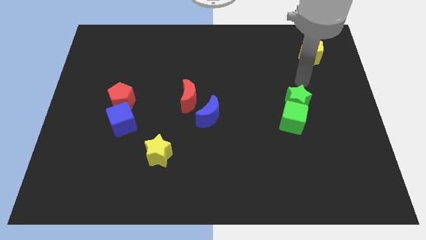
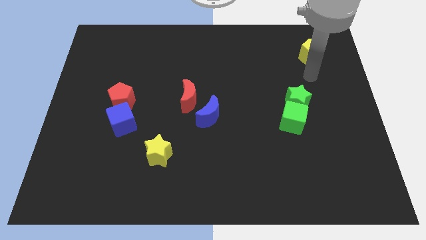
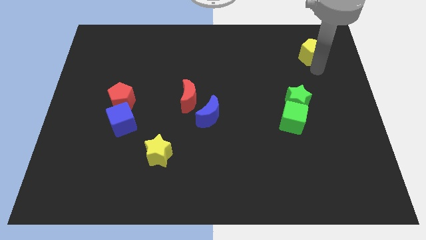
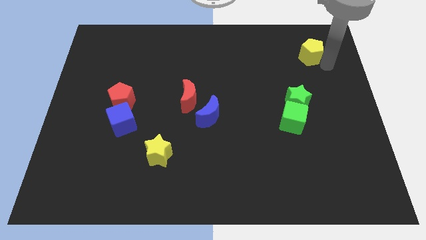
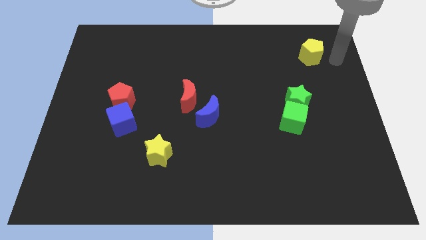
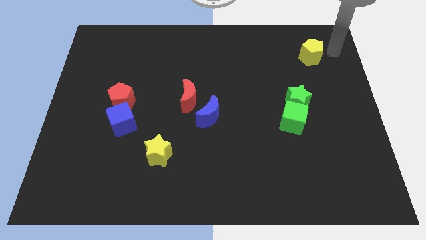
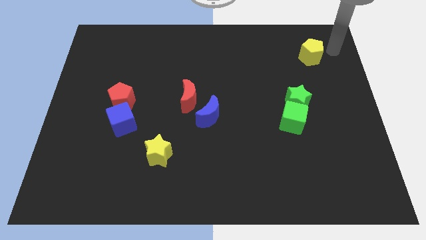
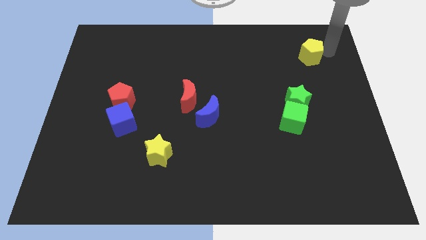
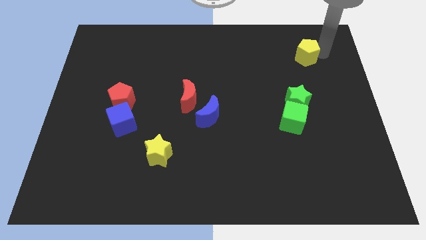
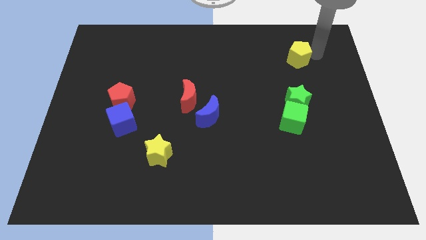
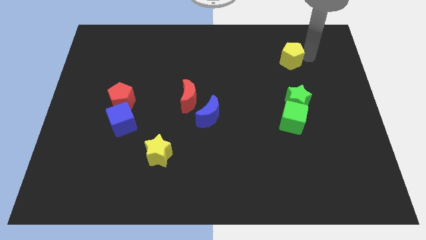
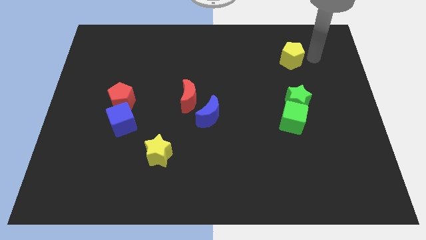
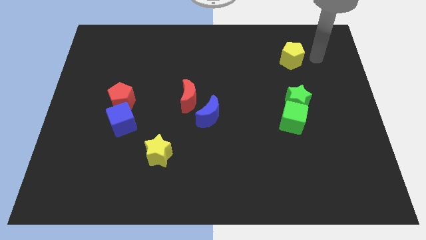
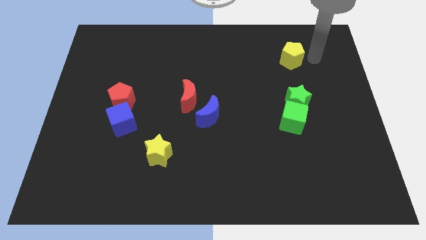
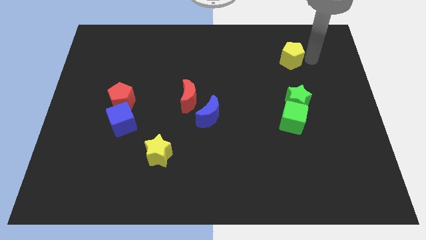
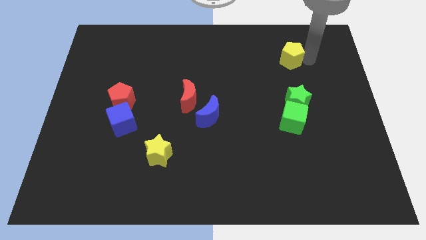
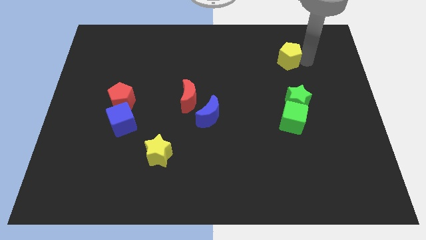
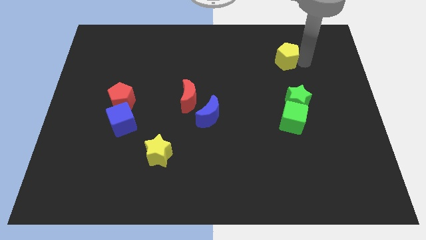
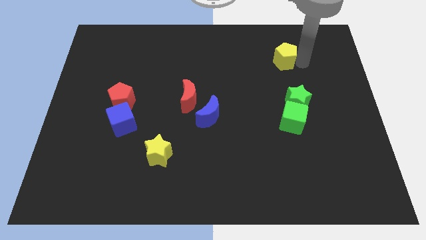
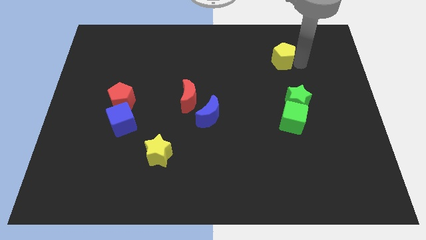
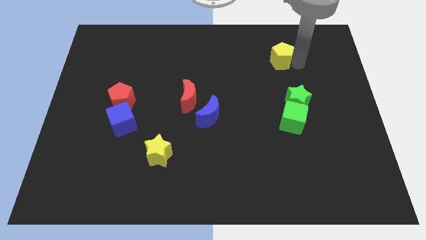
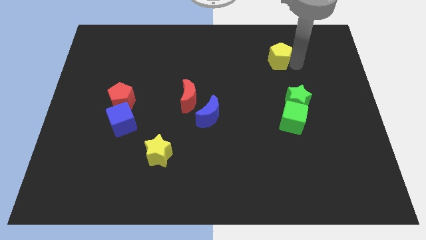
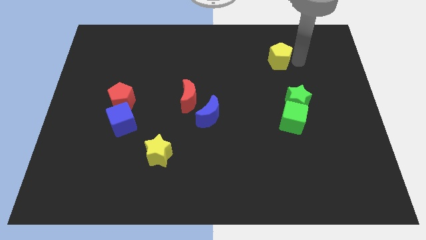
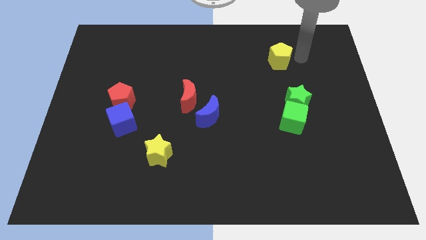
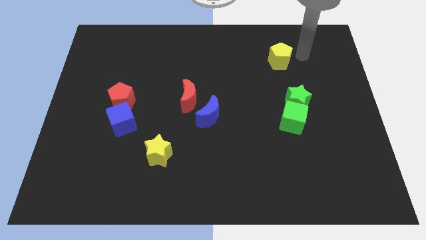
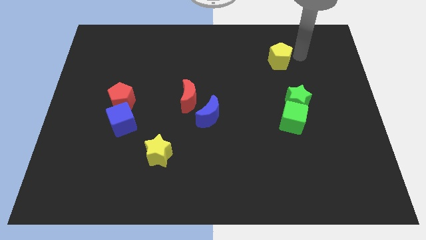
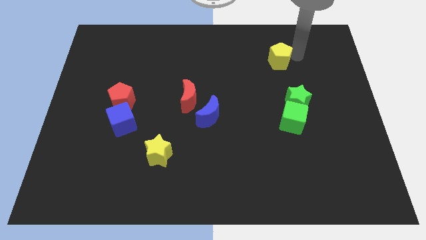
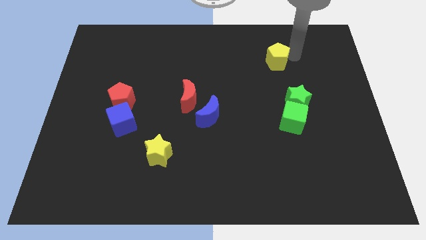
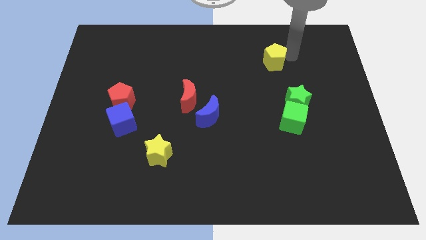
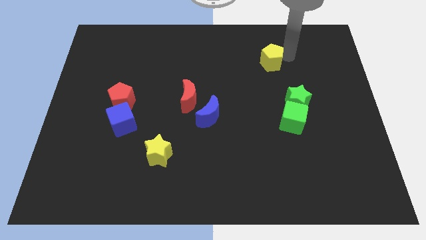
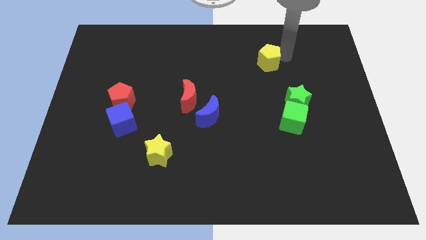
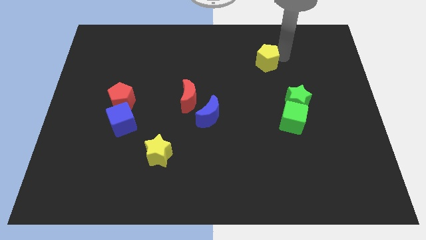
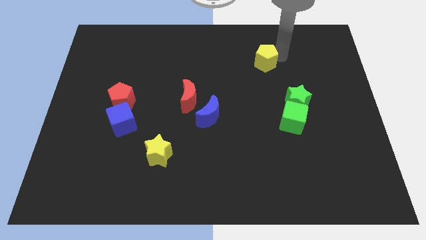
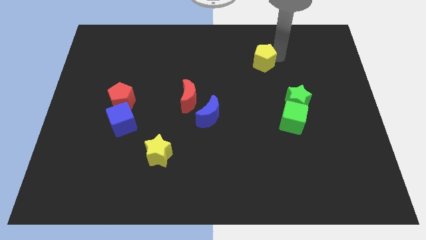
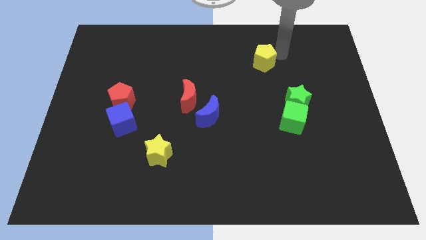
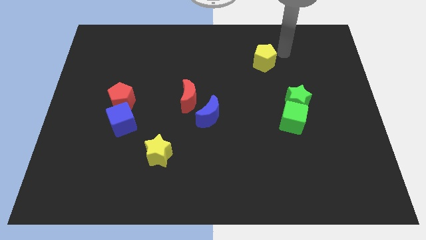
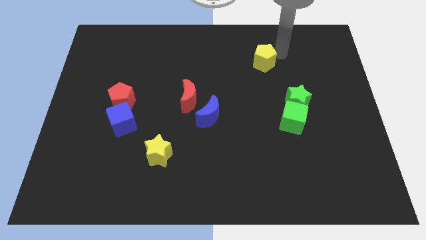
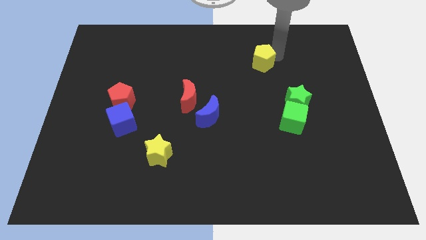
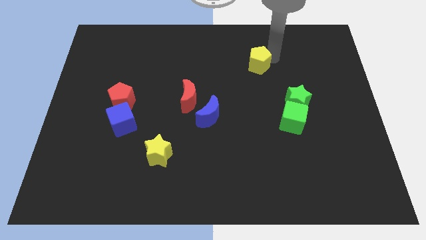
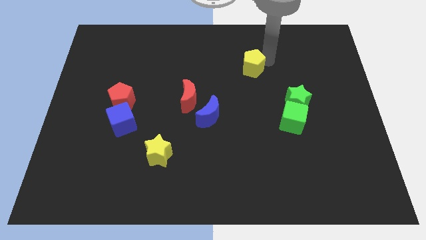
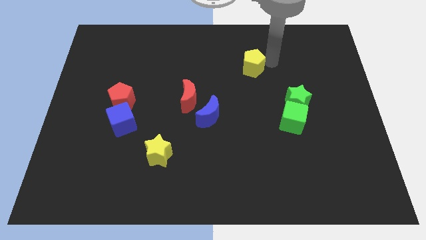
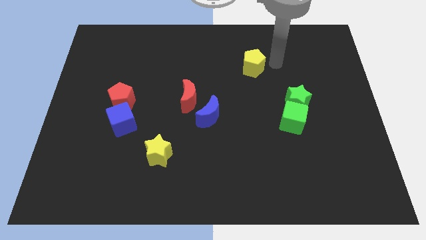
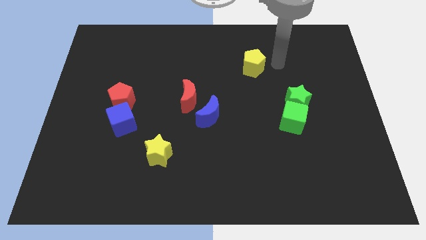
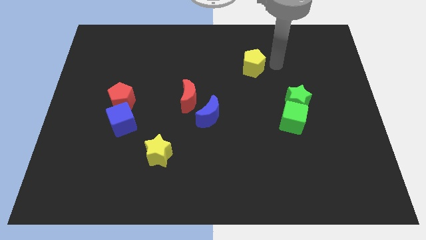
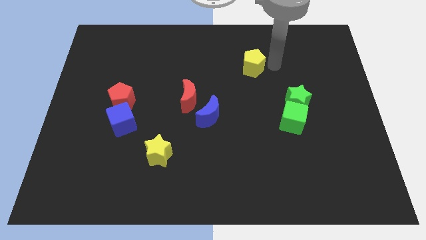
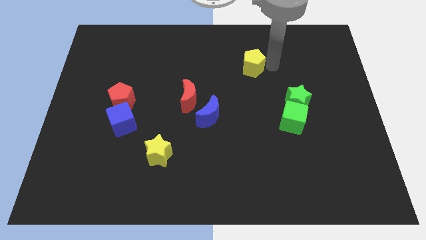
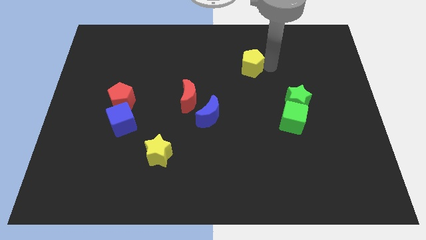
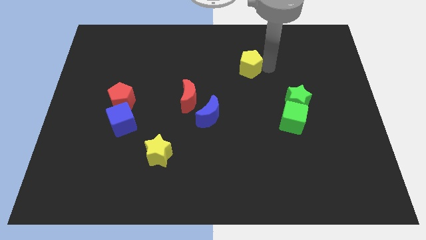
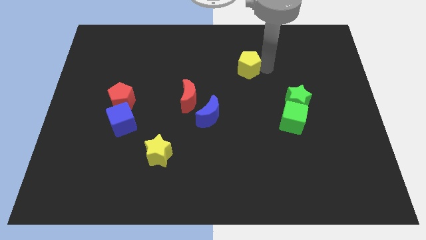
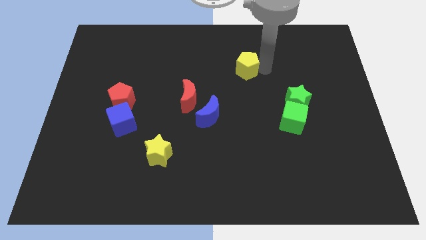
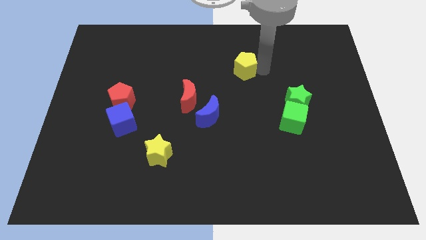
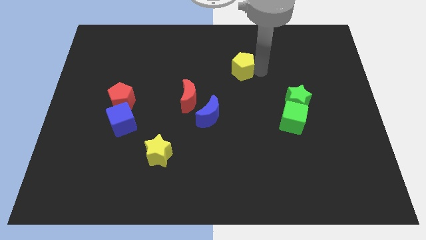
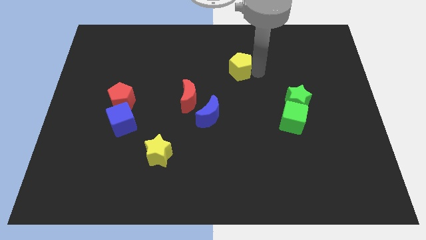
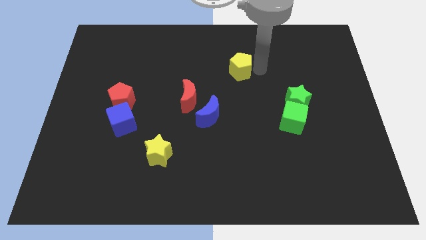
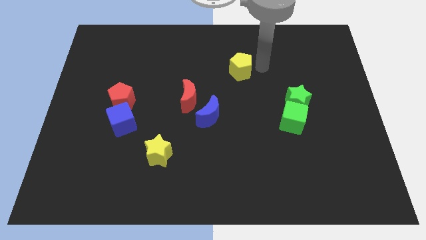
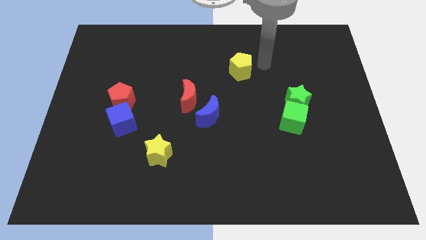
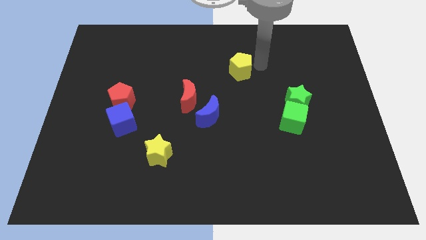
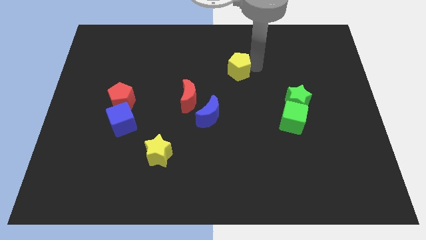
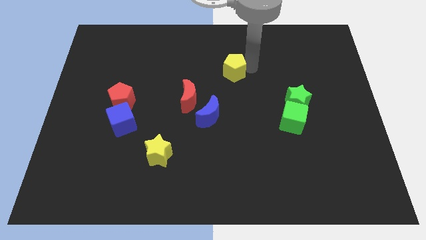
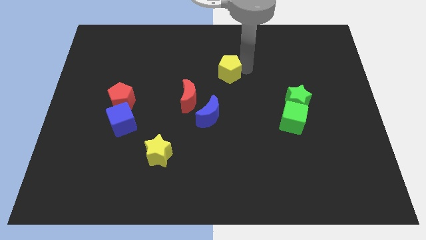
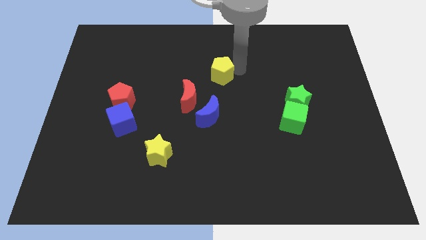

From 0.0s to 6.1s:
push the yellow pentagon diagonally up and to the right of the red moon

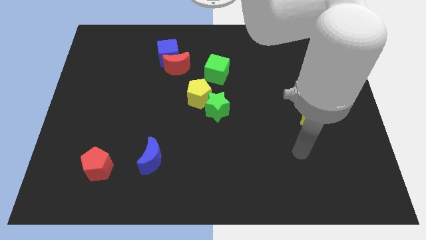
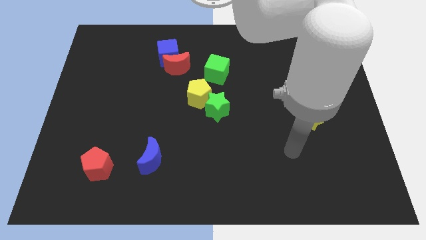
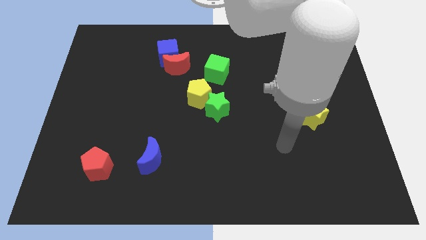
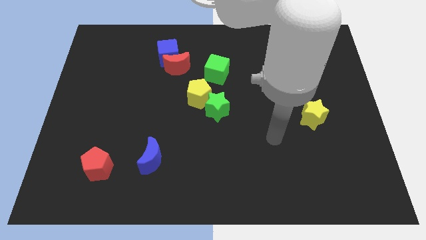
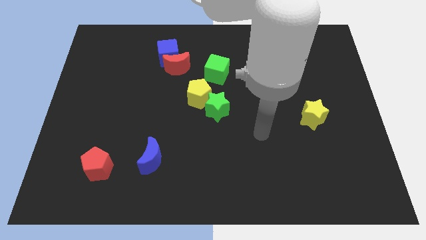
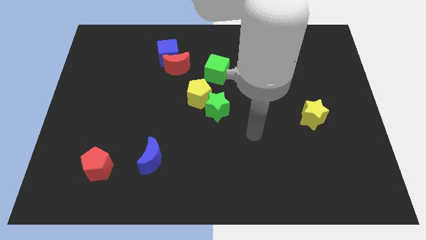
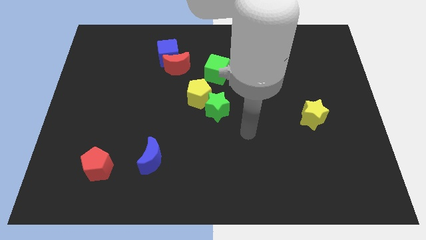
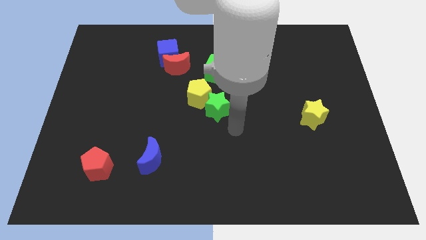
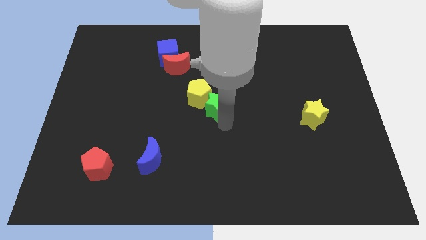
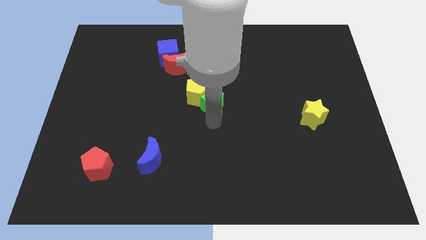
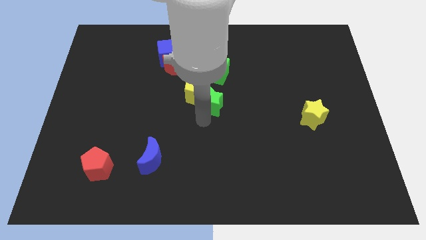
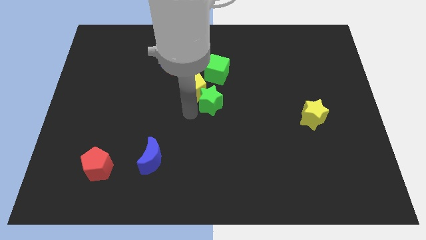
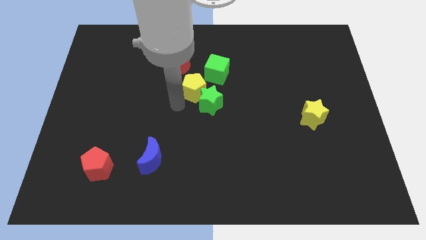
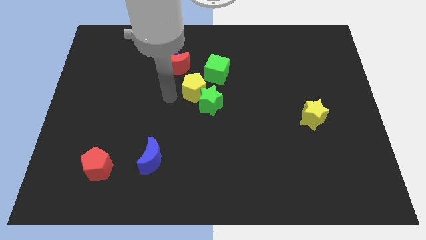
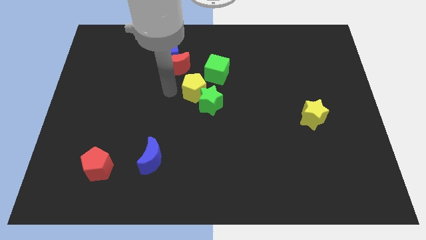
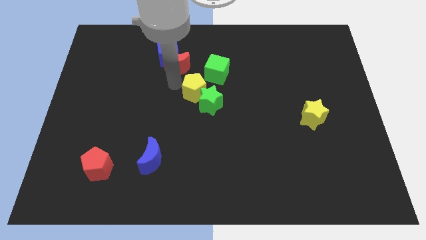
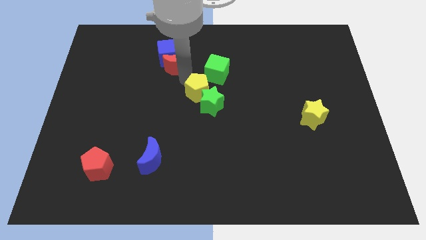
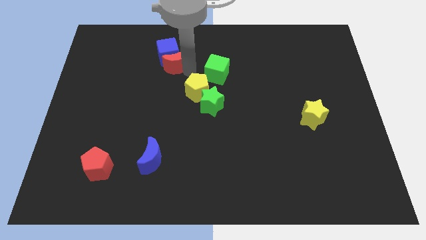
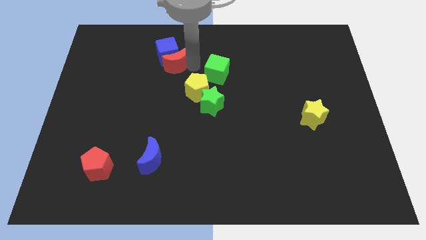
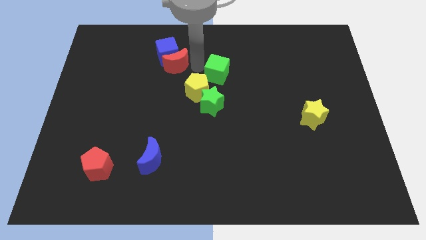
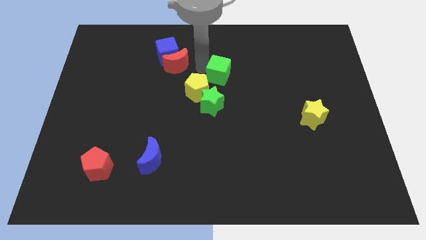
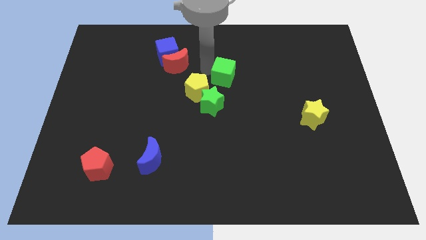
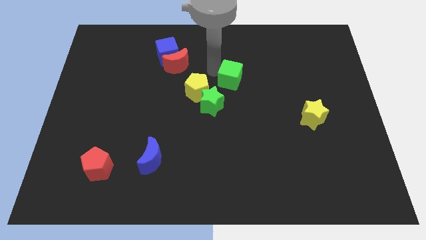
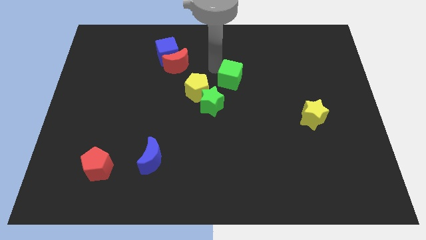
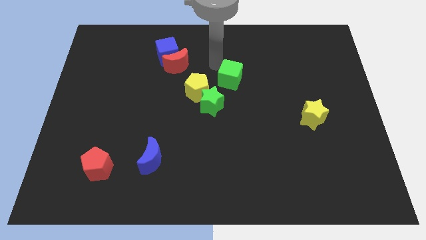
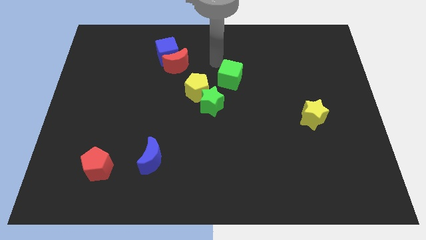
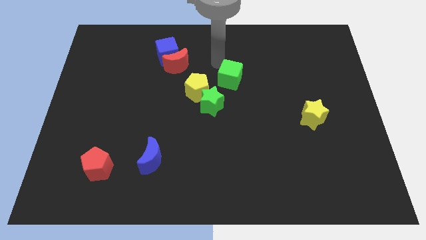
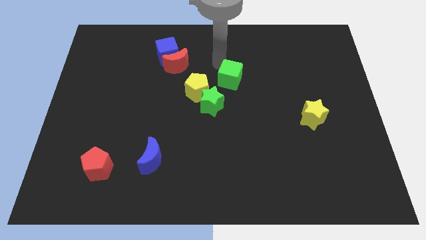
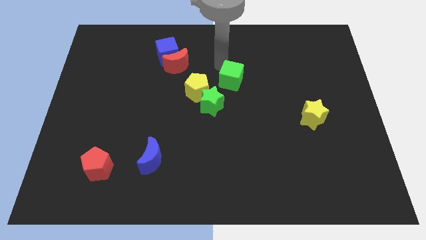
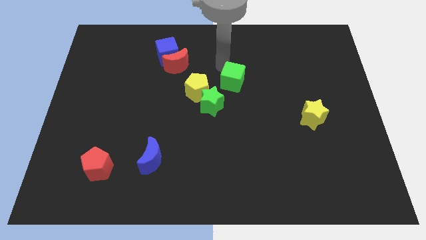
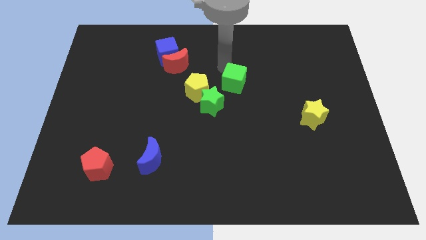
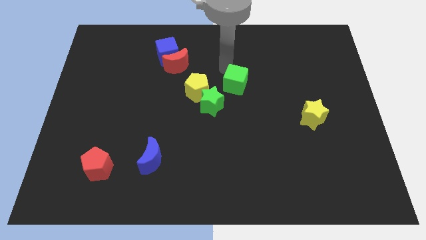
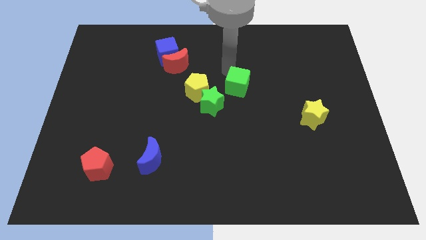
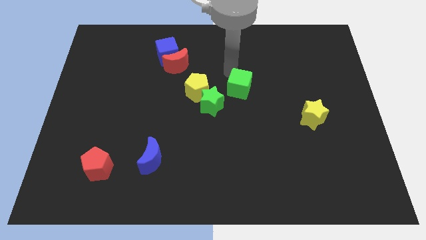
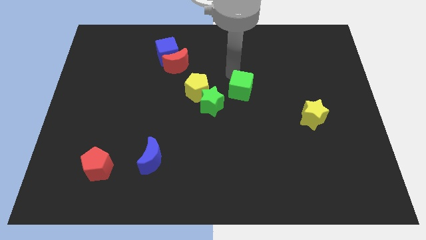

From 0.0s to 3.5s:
slide the green cube to the right side of the green star
